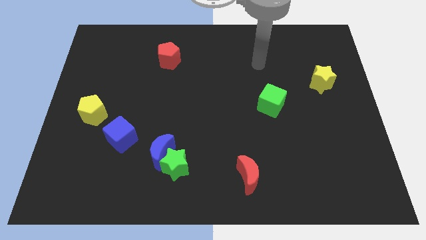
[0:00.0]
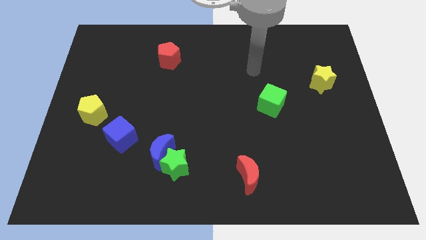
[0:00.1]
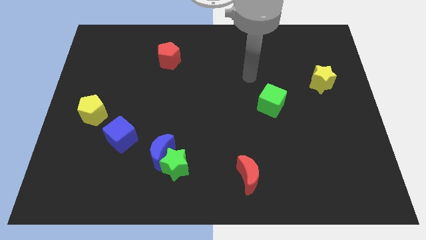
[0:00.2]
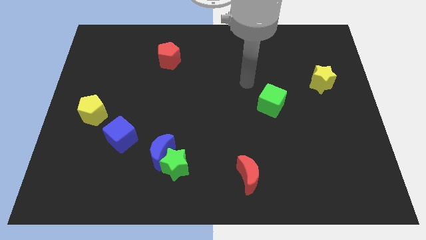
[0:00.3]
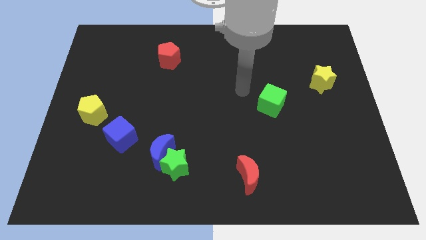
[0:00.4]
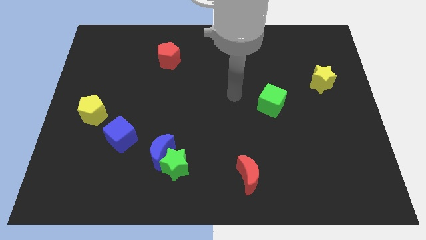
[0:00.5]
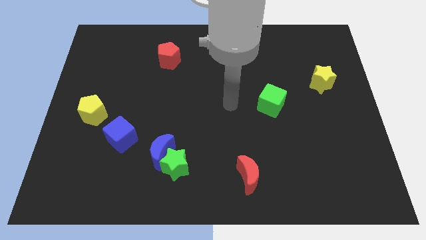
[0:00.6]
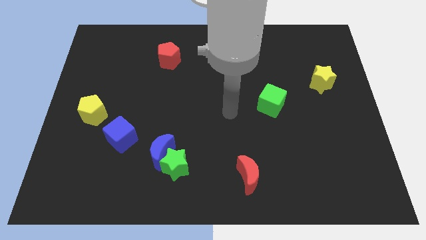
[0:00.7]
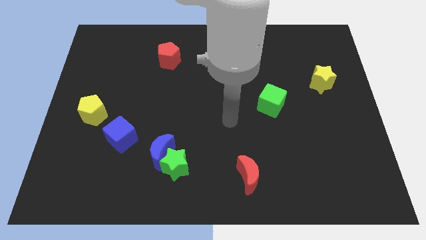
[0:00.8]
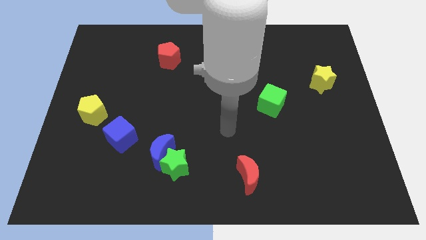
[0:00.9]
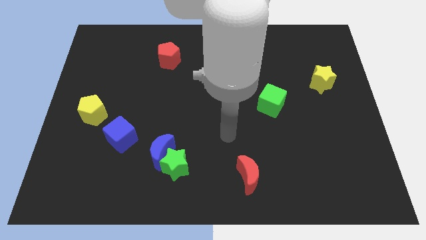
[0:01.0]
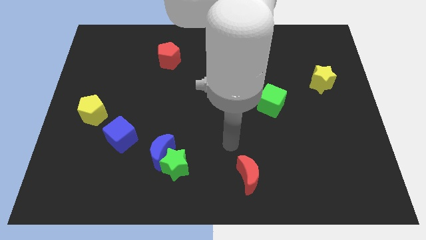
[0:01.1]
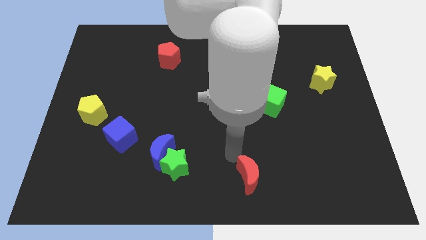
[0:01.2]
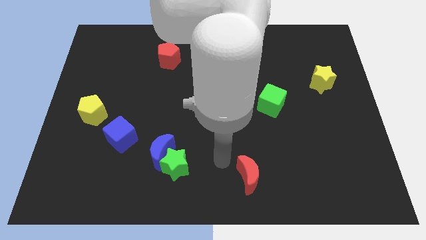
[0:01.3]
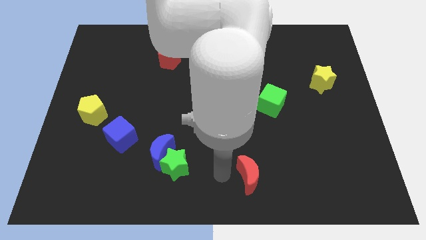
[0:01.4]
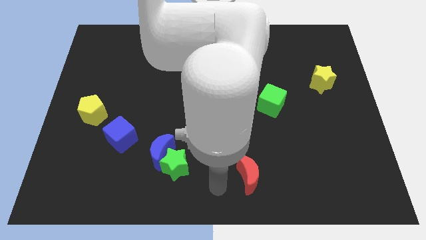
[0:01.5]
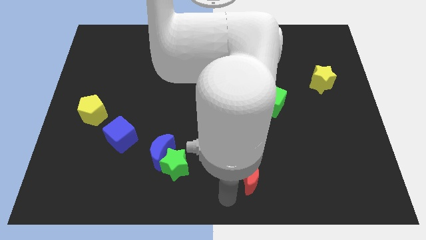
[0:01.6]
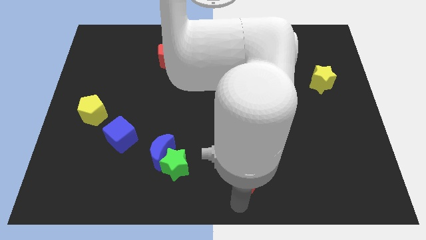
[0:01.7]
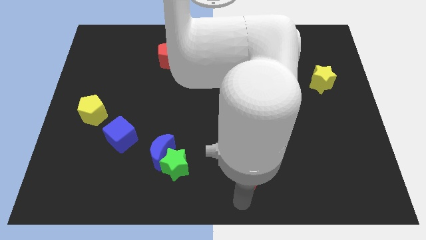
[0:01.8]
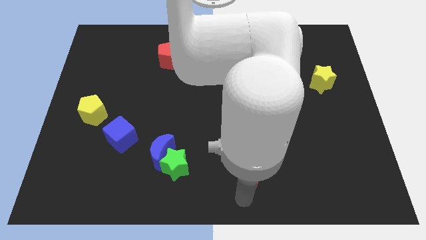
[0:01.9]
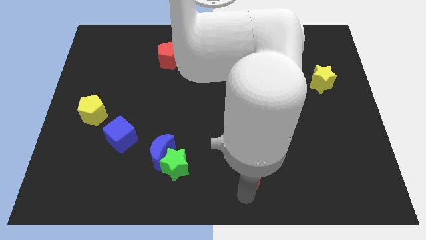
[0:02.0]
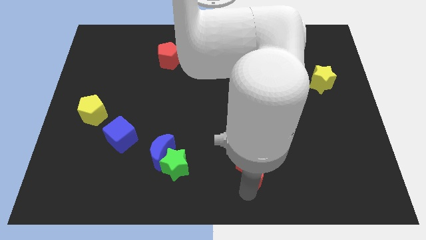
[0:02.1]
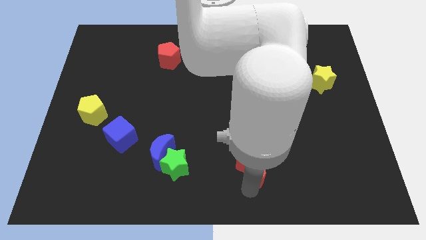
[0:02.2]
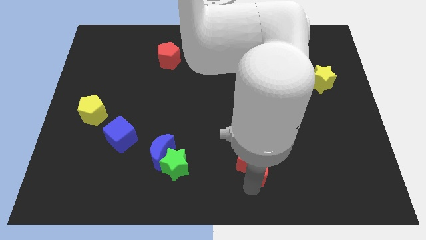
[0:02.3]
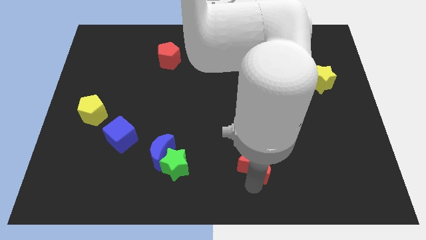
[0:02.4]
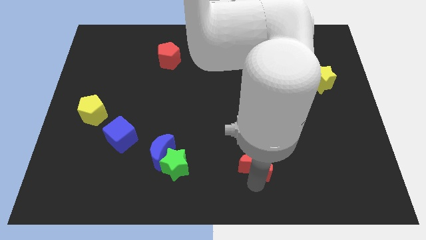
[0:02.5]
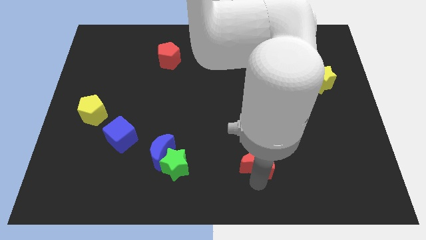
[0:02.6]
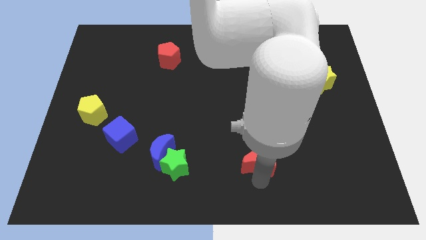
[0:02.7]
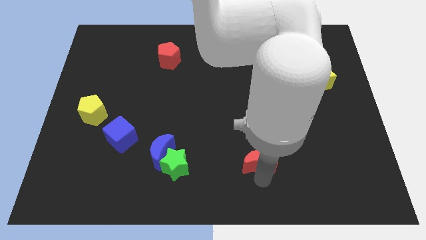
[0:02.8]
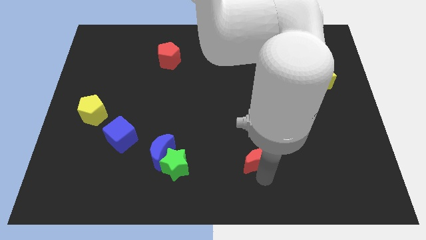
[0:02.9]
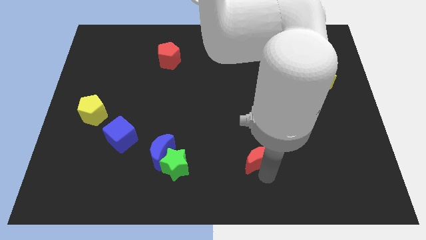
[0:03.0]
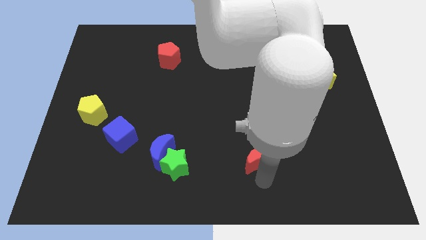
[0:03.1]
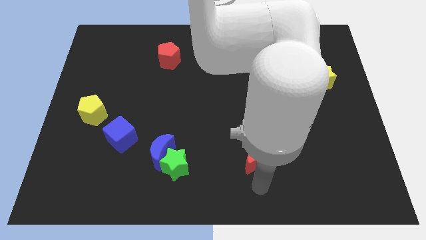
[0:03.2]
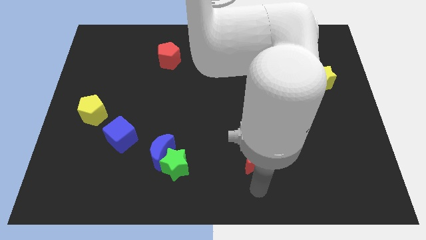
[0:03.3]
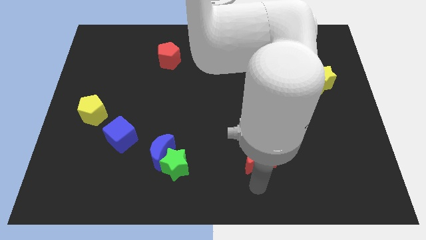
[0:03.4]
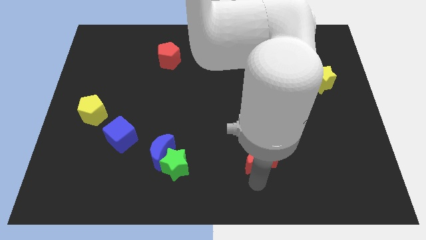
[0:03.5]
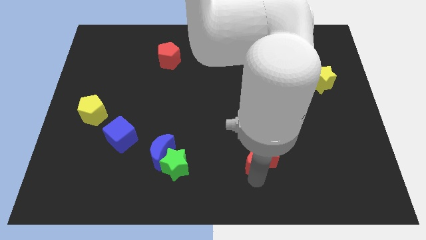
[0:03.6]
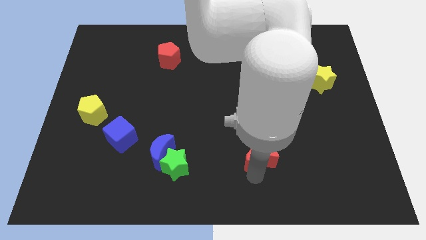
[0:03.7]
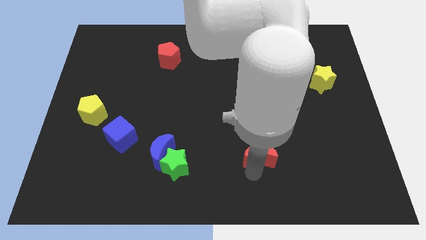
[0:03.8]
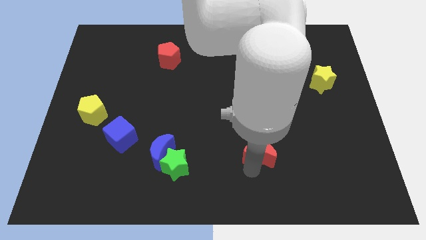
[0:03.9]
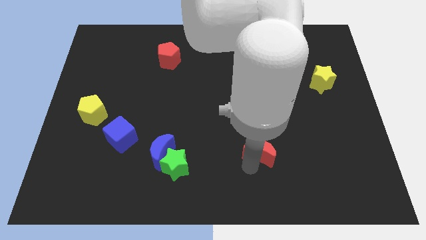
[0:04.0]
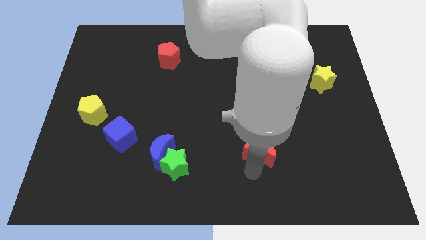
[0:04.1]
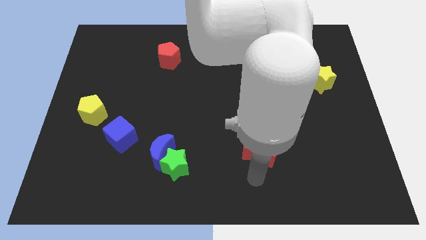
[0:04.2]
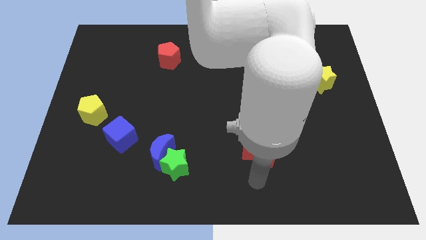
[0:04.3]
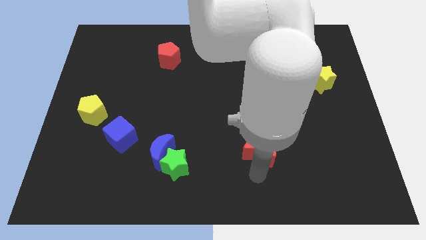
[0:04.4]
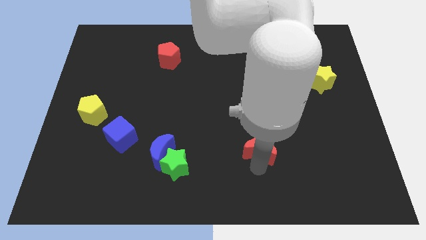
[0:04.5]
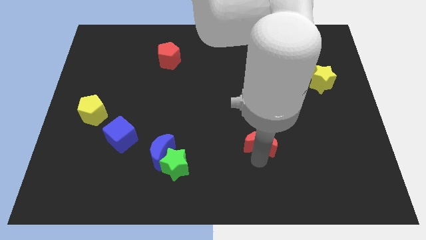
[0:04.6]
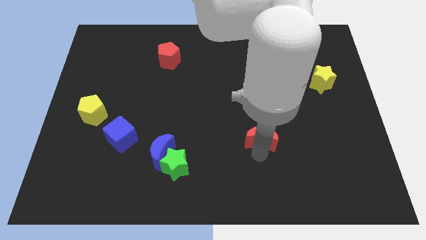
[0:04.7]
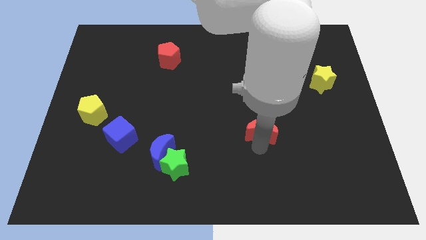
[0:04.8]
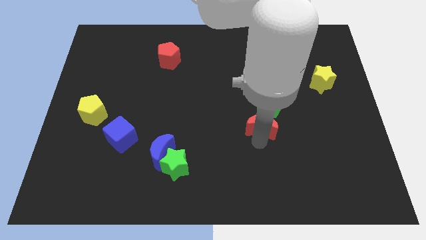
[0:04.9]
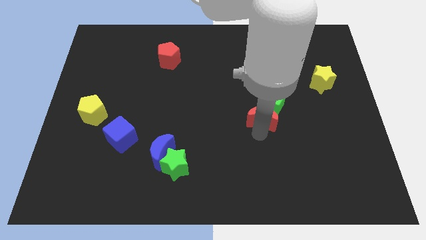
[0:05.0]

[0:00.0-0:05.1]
move the red moon to the green cube

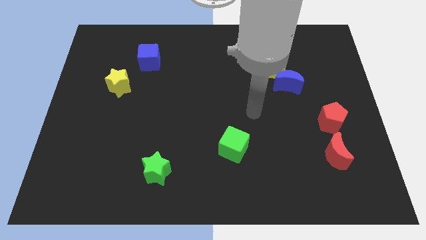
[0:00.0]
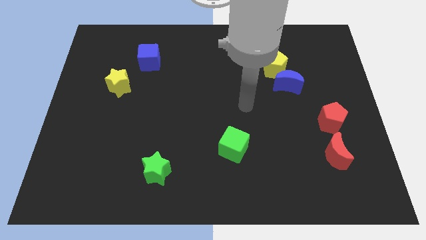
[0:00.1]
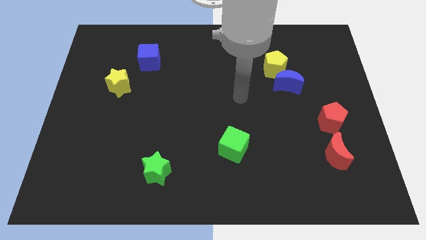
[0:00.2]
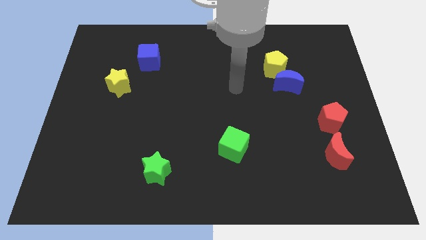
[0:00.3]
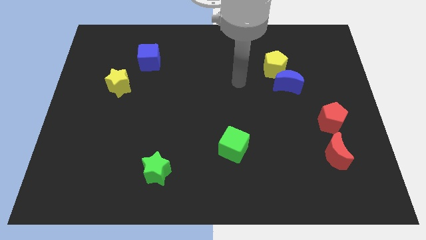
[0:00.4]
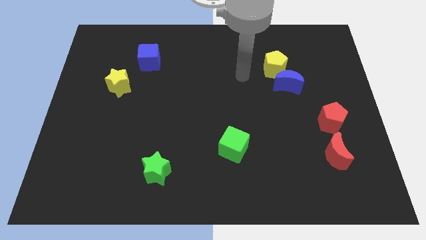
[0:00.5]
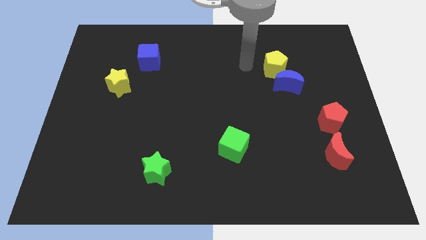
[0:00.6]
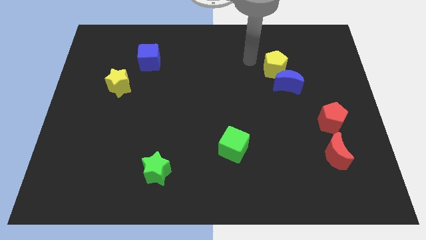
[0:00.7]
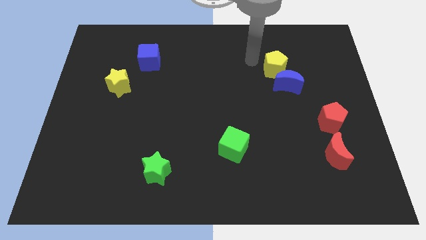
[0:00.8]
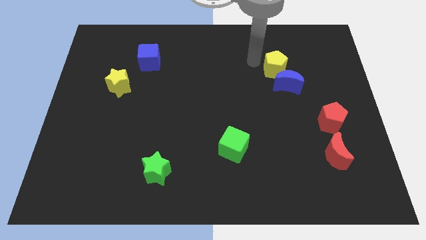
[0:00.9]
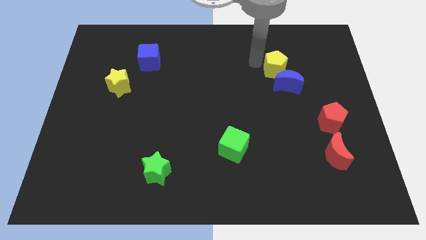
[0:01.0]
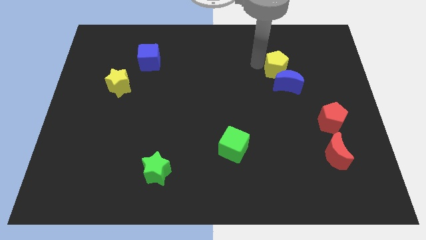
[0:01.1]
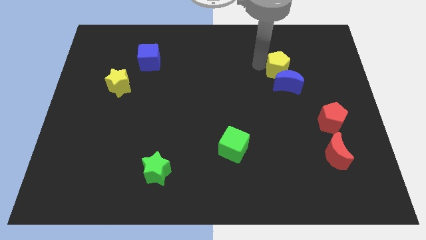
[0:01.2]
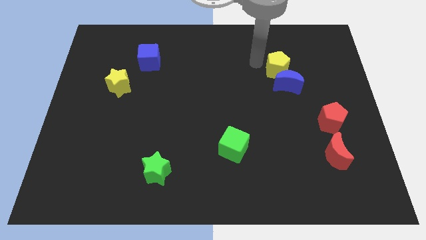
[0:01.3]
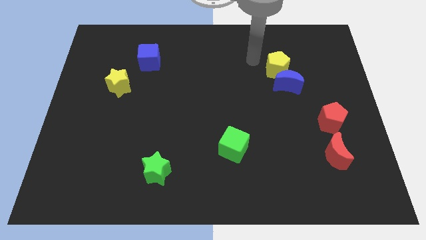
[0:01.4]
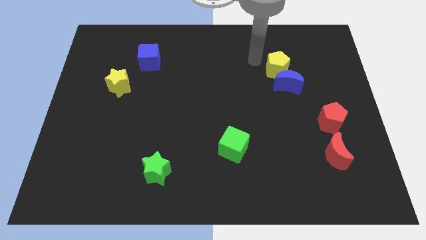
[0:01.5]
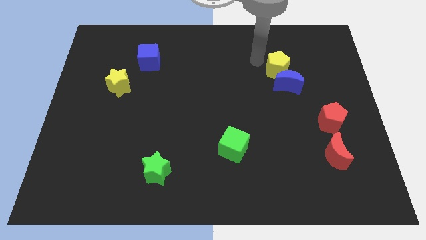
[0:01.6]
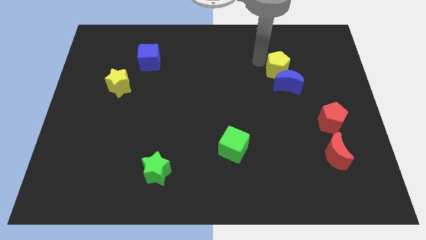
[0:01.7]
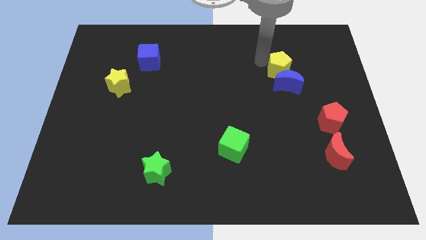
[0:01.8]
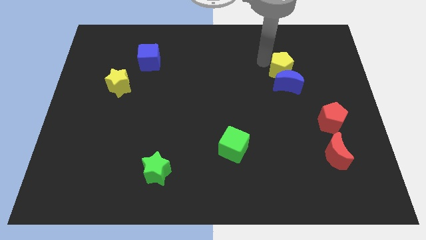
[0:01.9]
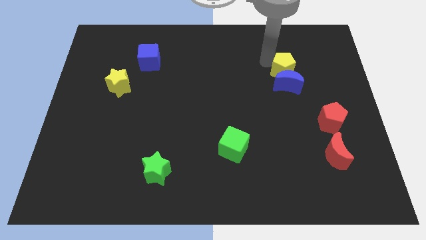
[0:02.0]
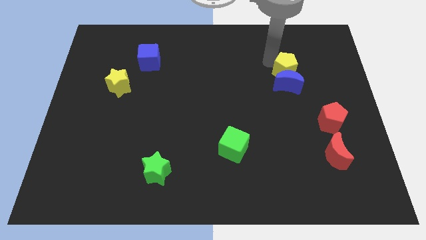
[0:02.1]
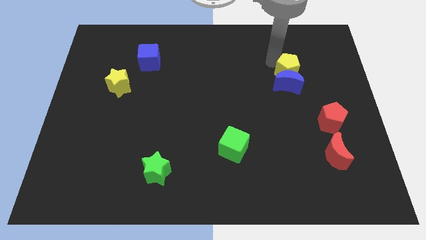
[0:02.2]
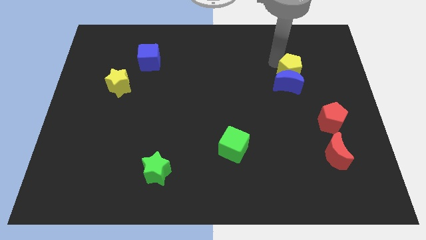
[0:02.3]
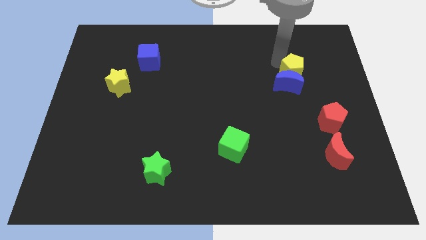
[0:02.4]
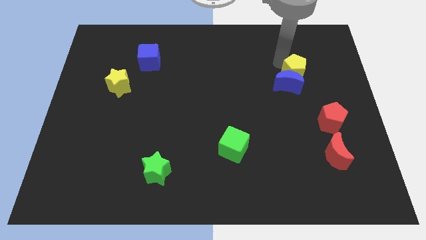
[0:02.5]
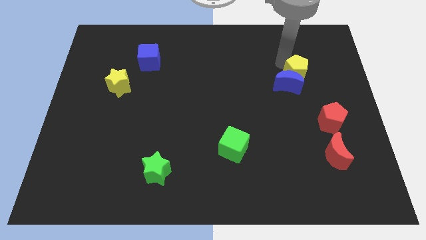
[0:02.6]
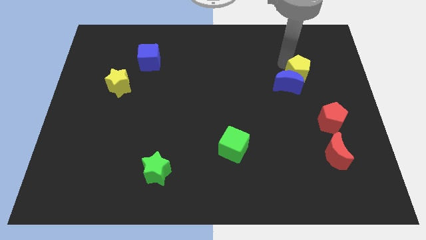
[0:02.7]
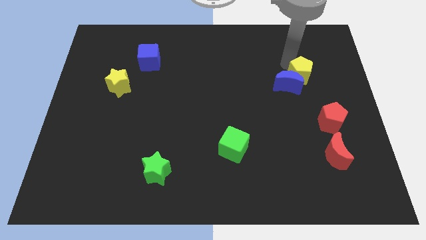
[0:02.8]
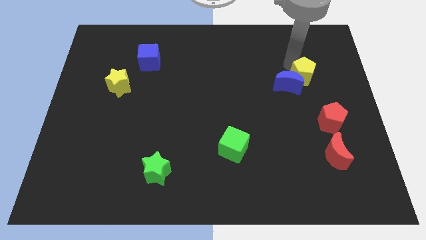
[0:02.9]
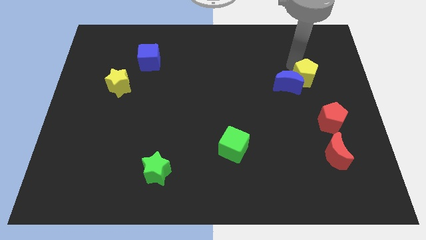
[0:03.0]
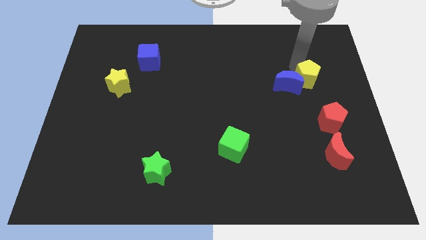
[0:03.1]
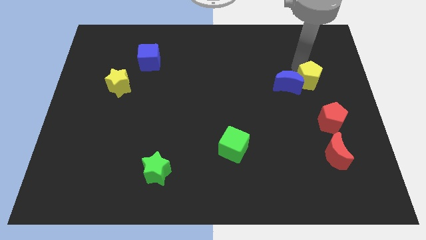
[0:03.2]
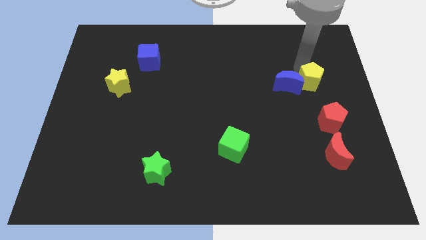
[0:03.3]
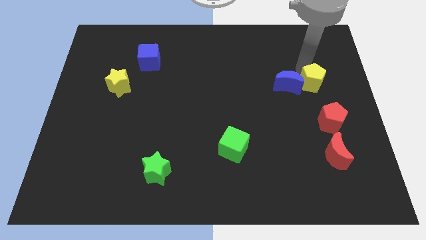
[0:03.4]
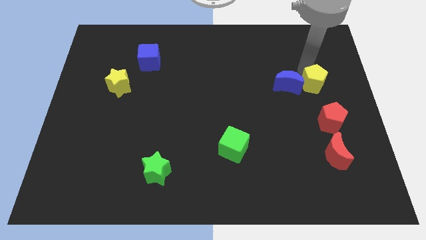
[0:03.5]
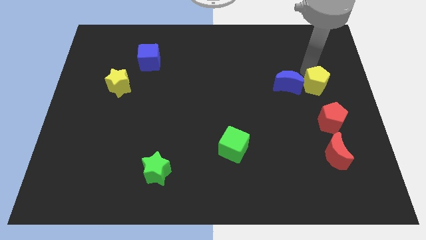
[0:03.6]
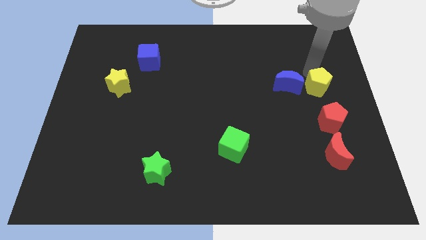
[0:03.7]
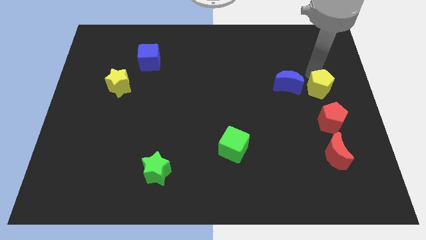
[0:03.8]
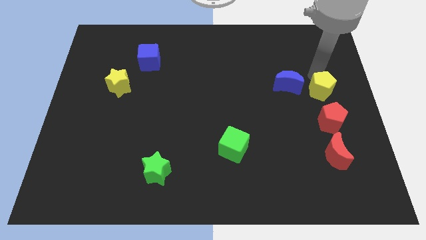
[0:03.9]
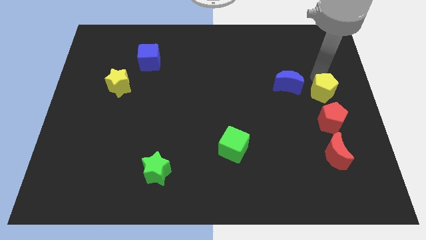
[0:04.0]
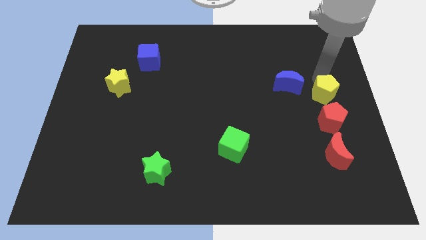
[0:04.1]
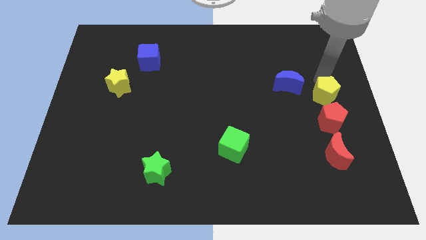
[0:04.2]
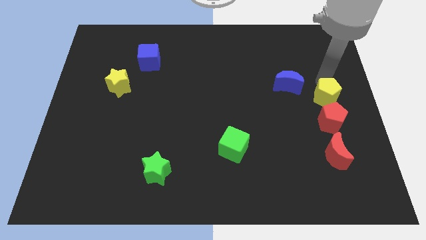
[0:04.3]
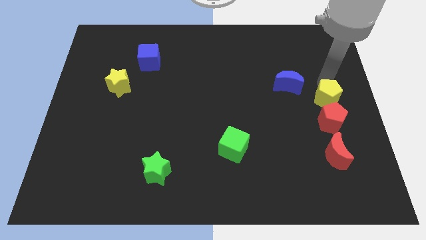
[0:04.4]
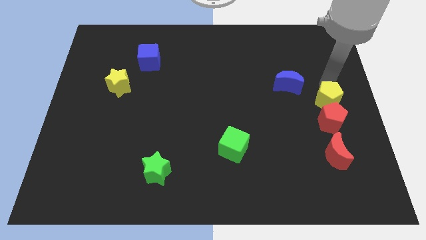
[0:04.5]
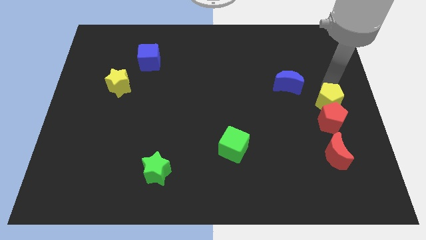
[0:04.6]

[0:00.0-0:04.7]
put the yellow pentagon next to the red pentagon
